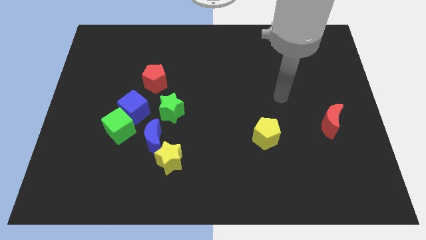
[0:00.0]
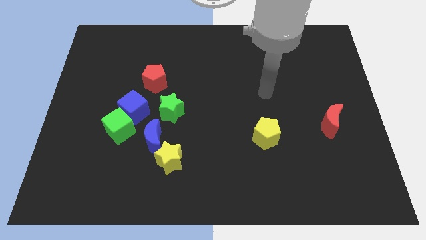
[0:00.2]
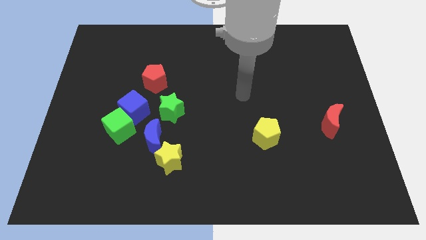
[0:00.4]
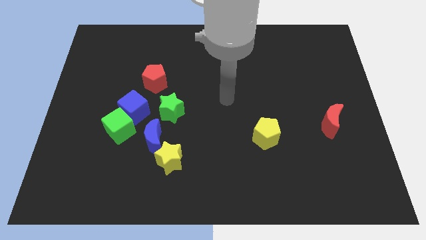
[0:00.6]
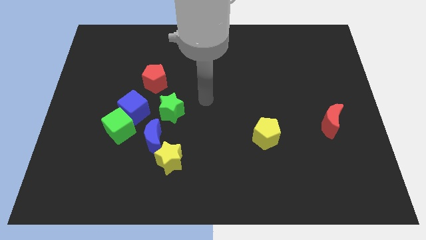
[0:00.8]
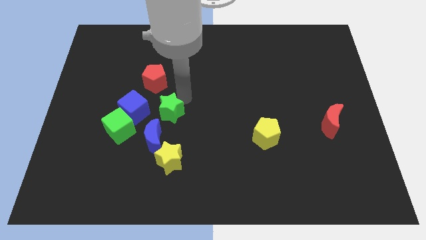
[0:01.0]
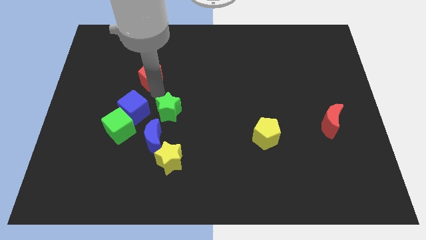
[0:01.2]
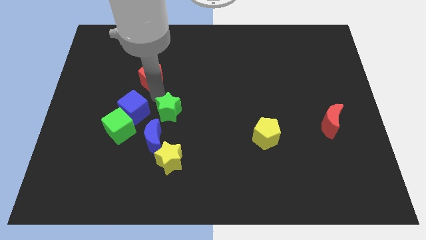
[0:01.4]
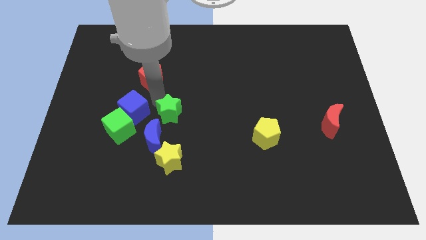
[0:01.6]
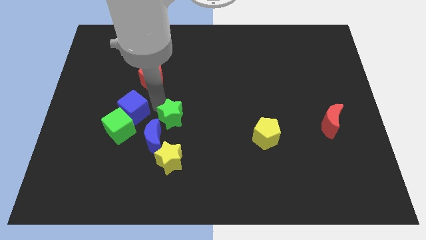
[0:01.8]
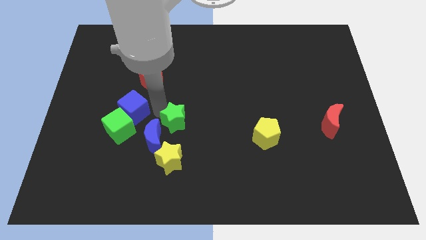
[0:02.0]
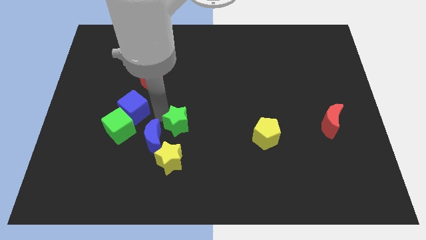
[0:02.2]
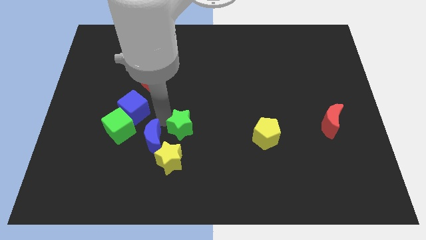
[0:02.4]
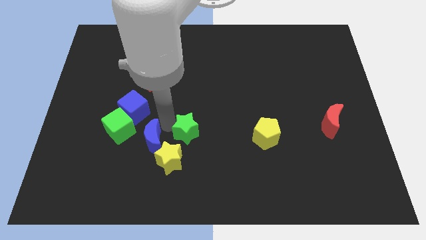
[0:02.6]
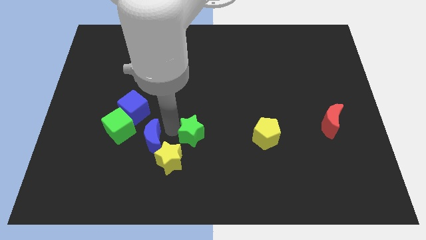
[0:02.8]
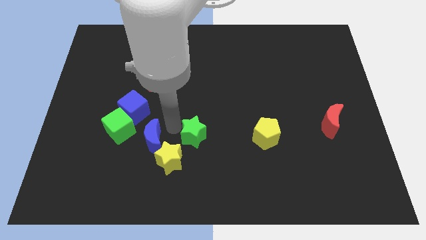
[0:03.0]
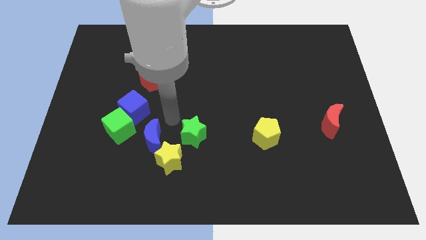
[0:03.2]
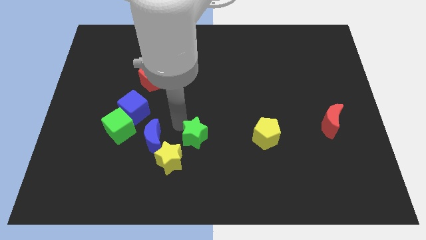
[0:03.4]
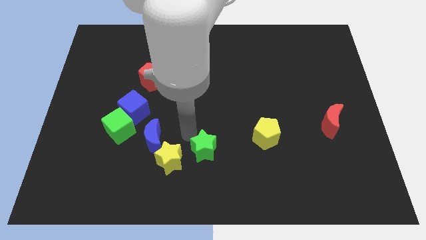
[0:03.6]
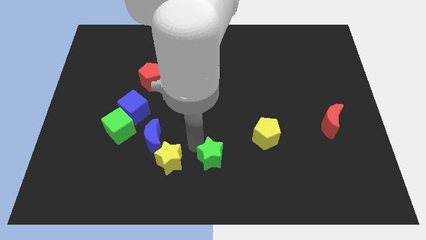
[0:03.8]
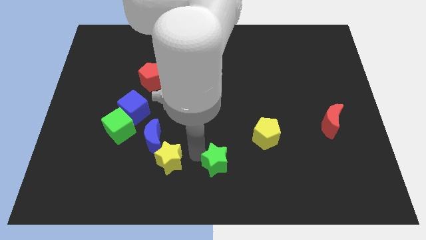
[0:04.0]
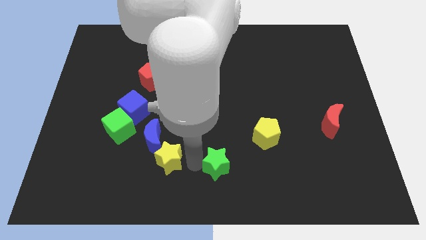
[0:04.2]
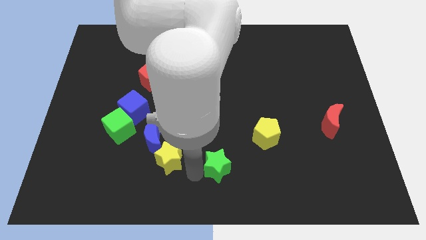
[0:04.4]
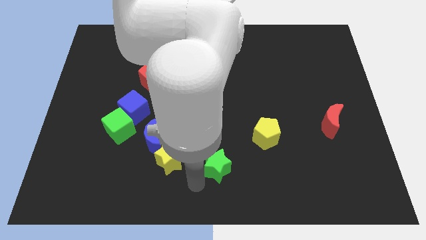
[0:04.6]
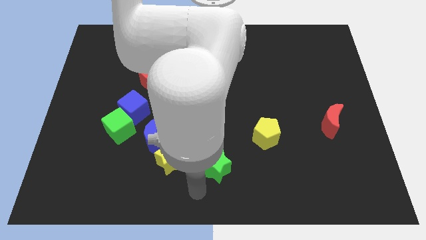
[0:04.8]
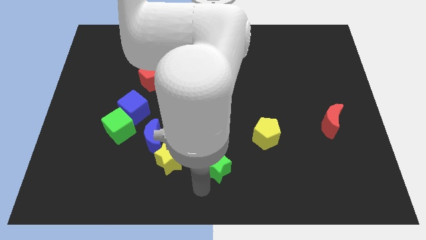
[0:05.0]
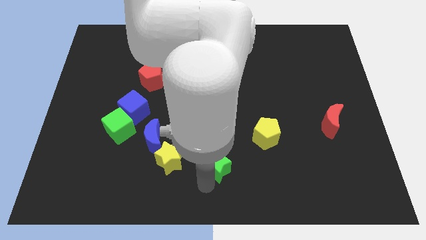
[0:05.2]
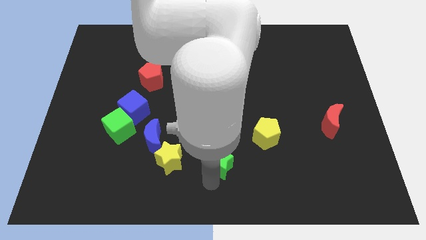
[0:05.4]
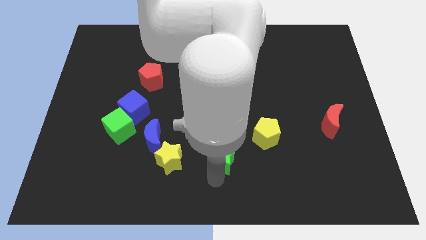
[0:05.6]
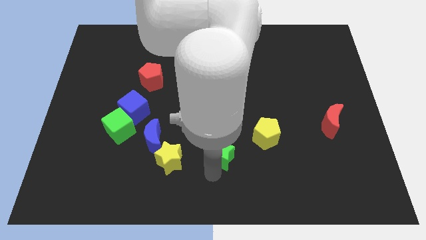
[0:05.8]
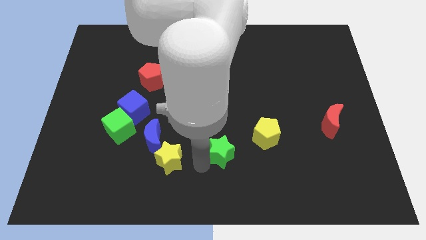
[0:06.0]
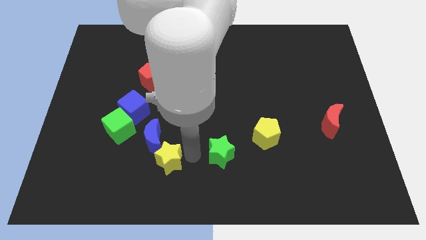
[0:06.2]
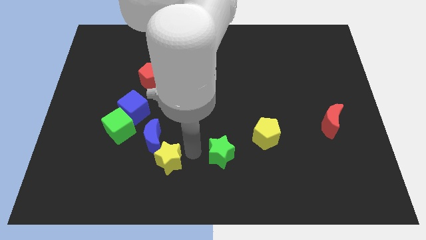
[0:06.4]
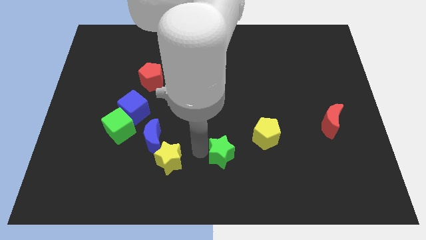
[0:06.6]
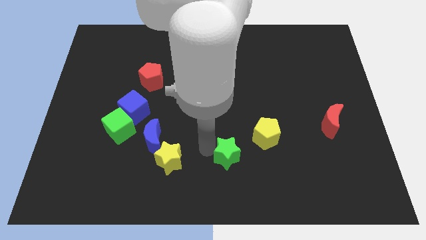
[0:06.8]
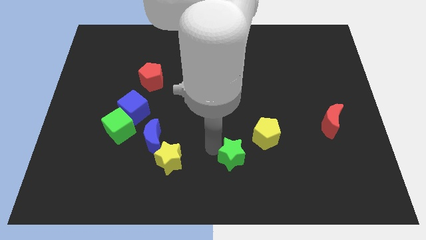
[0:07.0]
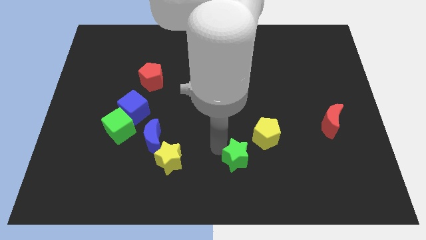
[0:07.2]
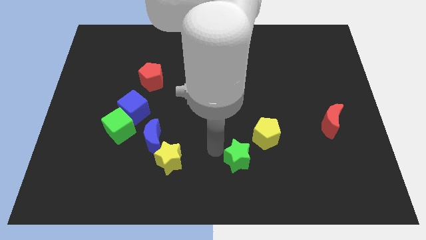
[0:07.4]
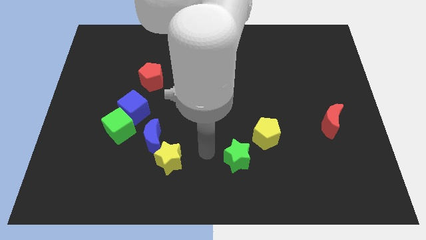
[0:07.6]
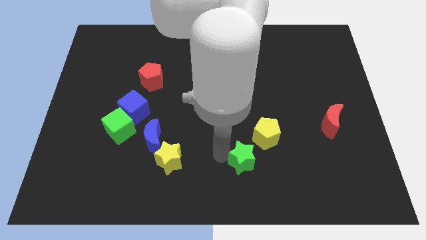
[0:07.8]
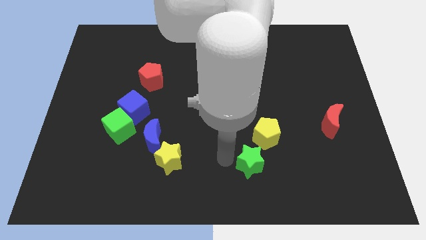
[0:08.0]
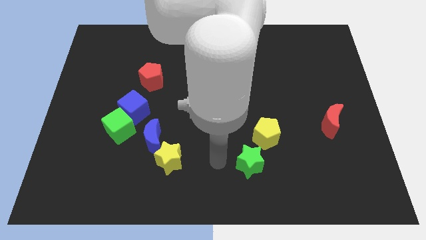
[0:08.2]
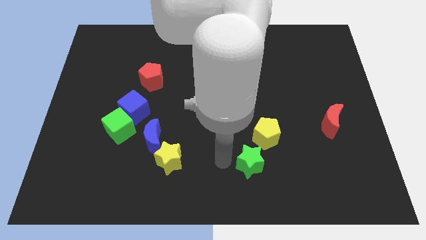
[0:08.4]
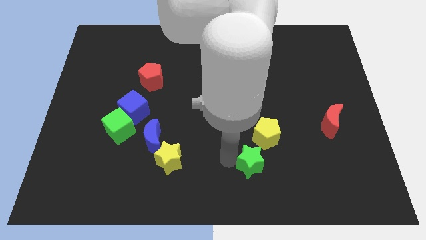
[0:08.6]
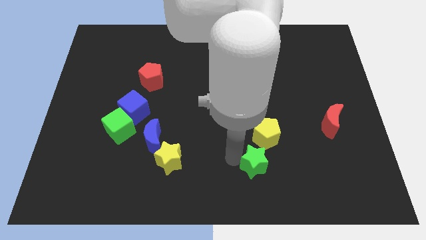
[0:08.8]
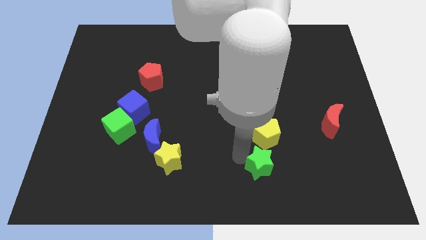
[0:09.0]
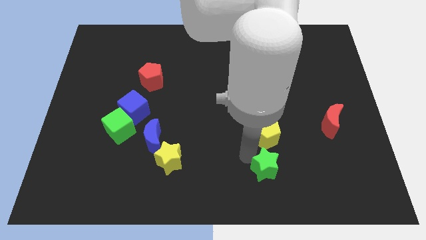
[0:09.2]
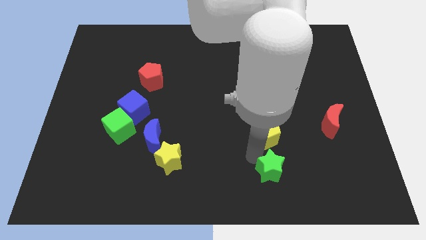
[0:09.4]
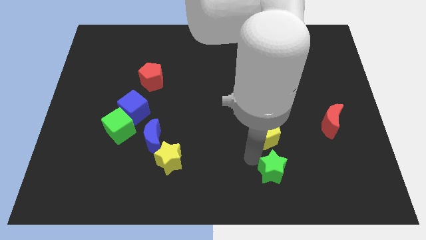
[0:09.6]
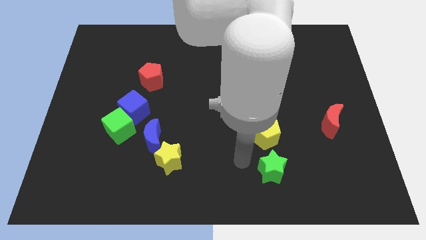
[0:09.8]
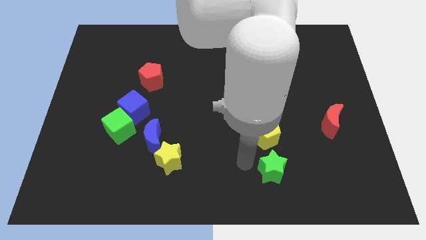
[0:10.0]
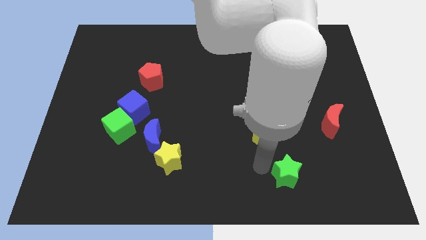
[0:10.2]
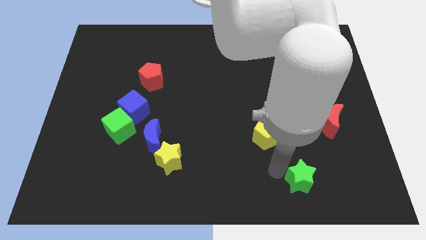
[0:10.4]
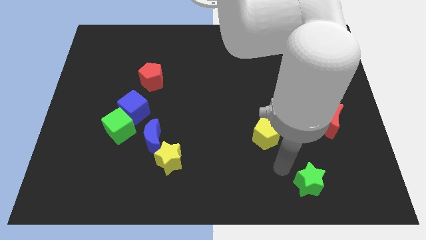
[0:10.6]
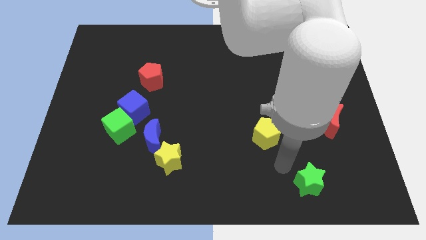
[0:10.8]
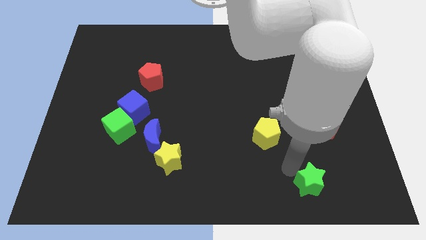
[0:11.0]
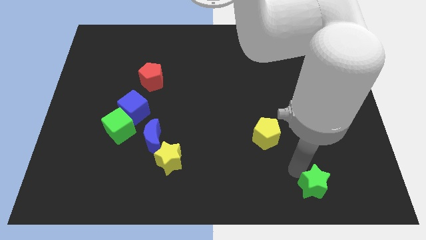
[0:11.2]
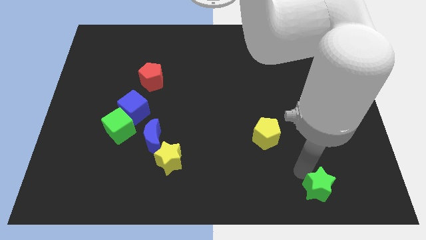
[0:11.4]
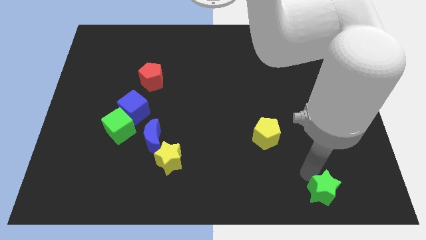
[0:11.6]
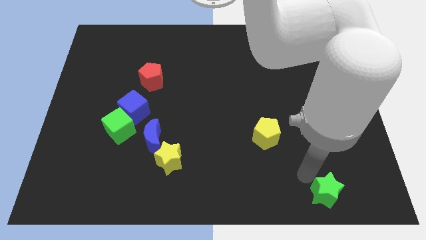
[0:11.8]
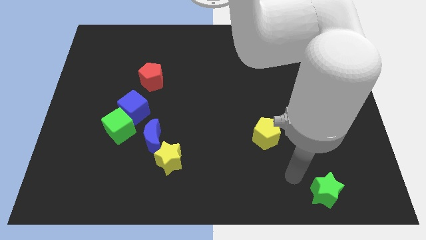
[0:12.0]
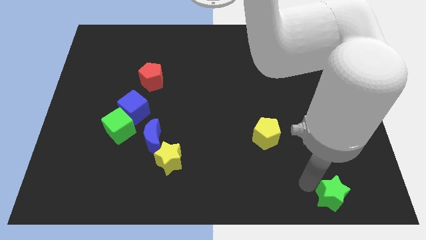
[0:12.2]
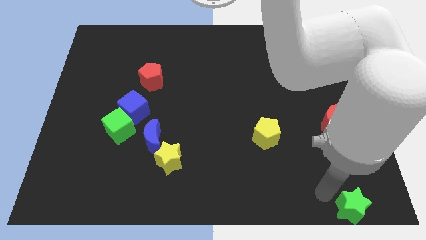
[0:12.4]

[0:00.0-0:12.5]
push the green star to the lower right corner

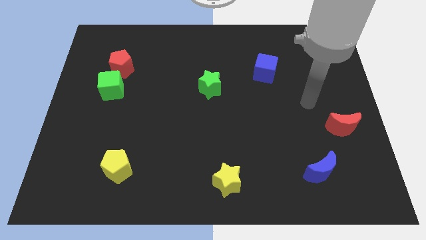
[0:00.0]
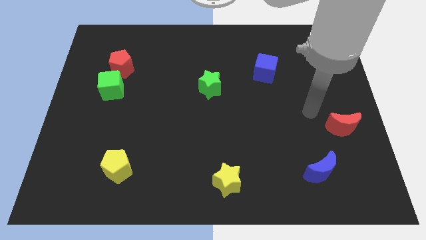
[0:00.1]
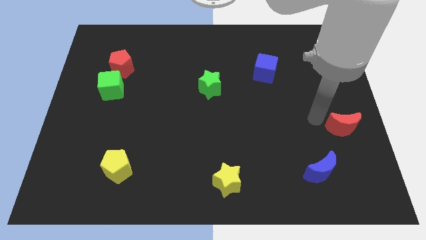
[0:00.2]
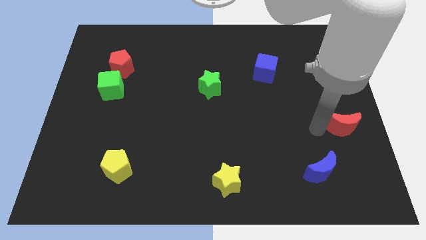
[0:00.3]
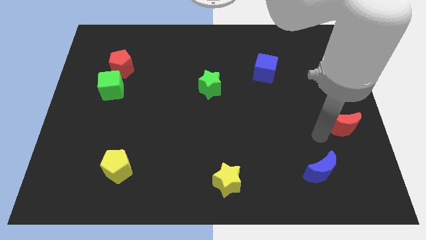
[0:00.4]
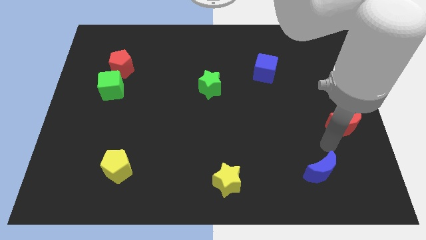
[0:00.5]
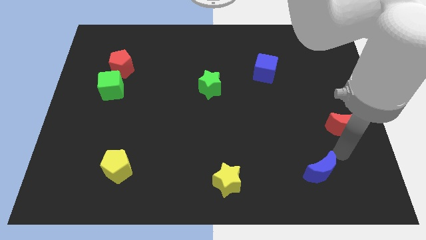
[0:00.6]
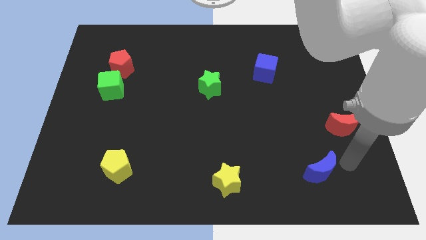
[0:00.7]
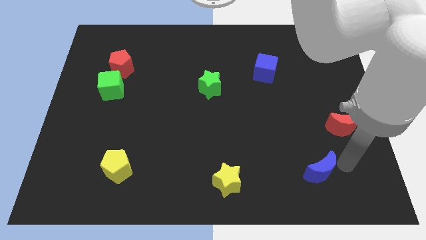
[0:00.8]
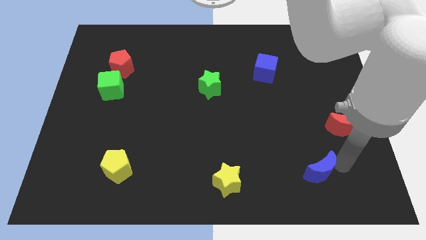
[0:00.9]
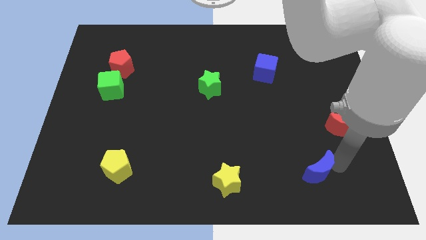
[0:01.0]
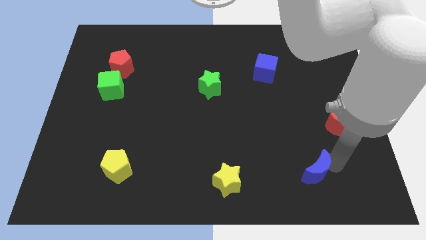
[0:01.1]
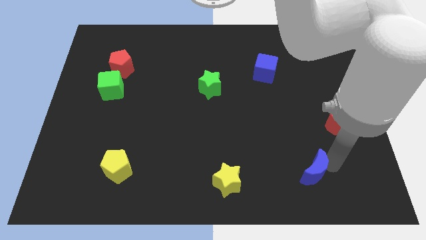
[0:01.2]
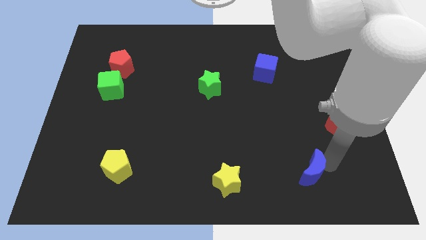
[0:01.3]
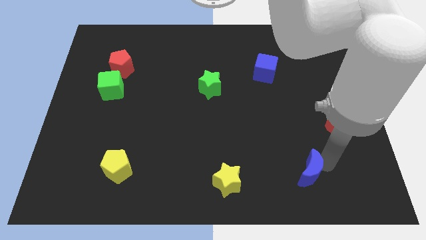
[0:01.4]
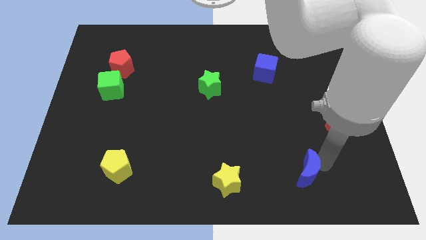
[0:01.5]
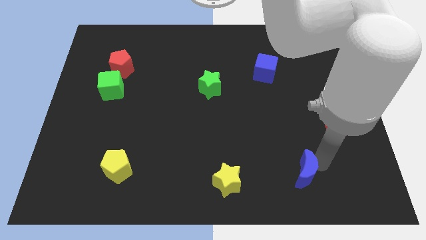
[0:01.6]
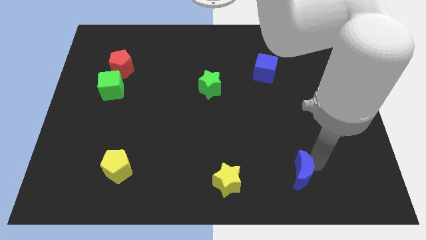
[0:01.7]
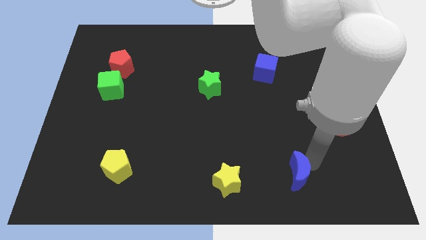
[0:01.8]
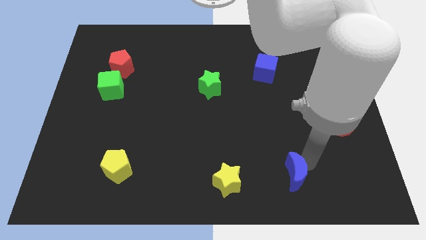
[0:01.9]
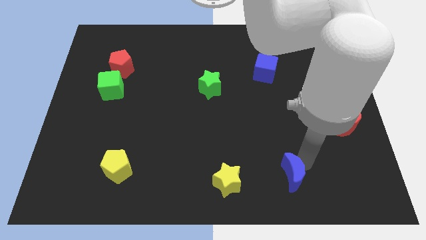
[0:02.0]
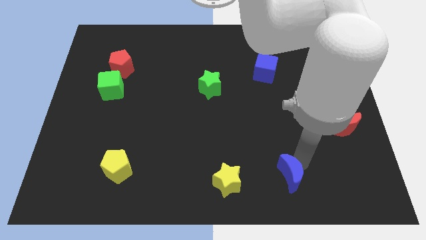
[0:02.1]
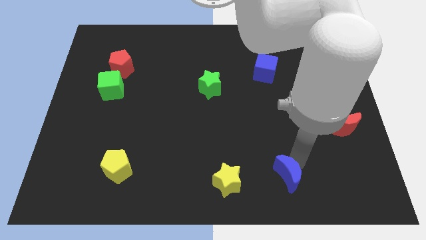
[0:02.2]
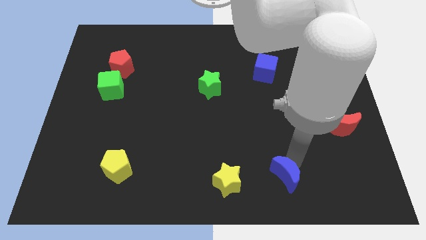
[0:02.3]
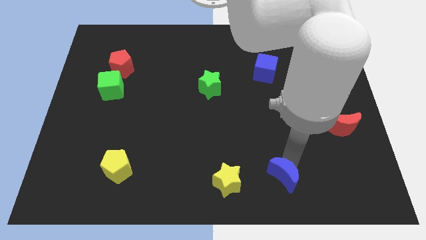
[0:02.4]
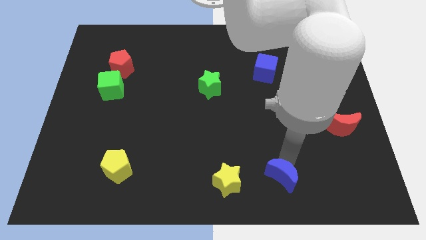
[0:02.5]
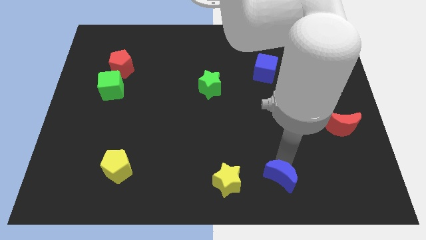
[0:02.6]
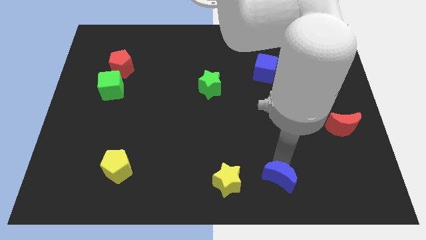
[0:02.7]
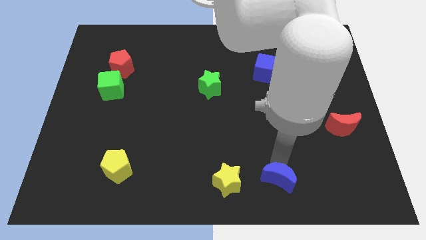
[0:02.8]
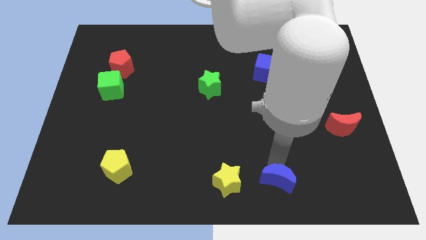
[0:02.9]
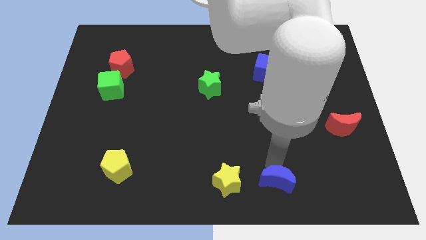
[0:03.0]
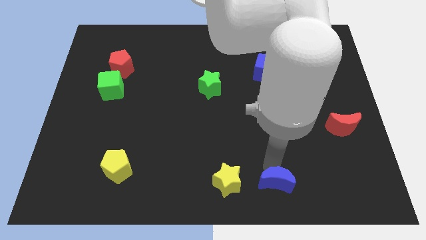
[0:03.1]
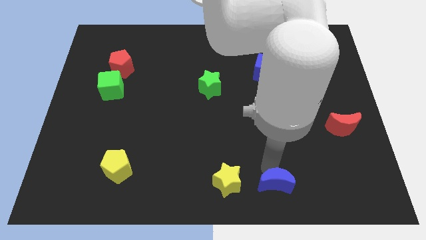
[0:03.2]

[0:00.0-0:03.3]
push the blue moon to the bottom
